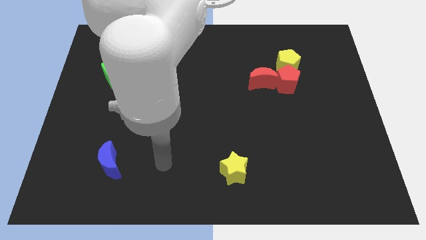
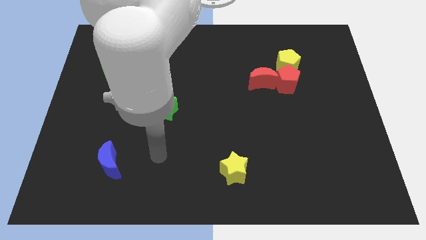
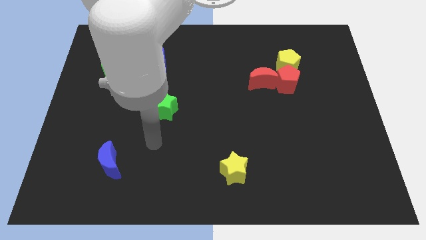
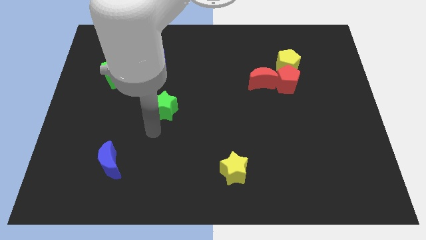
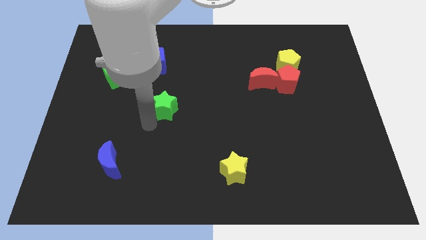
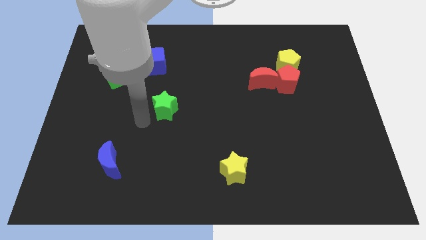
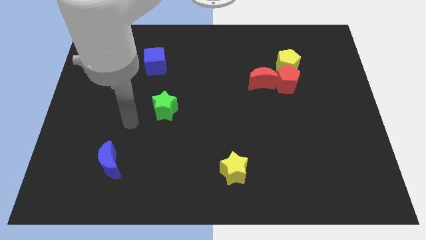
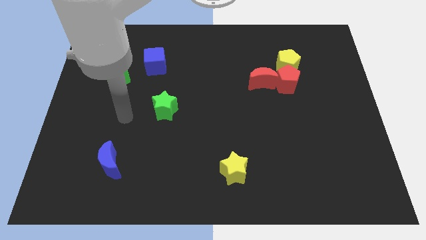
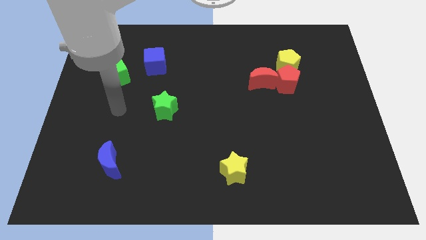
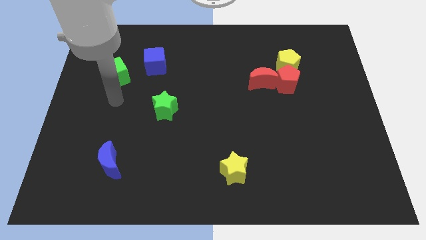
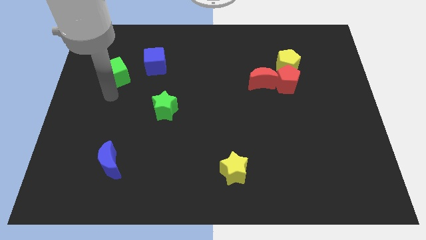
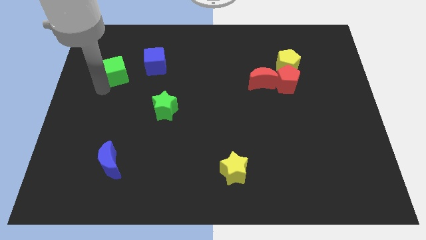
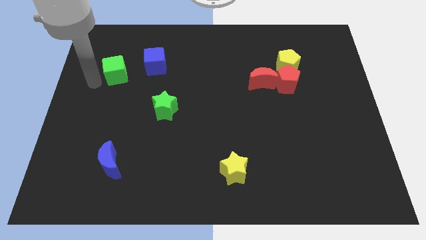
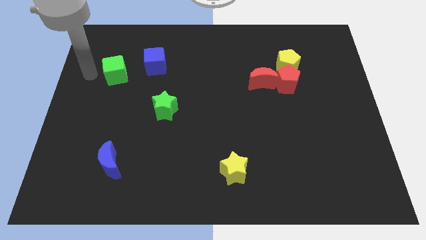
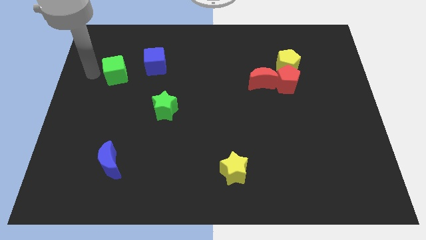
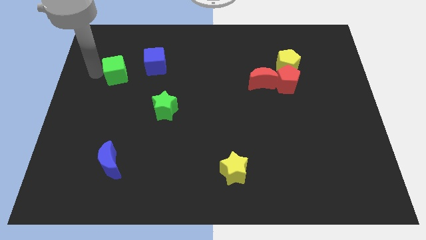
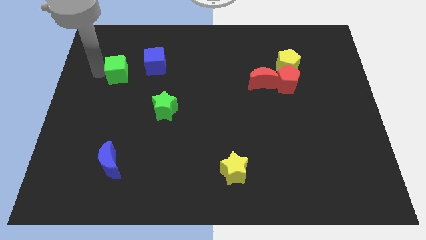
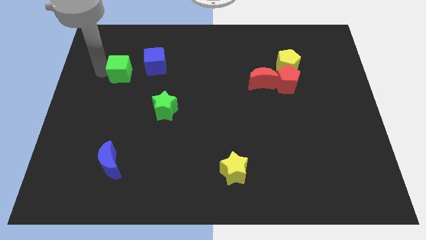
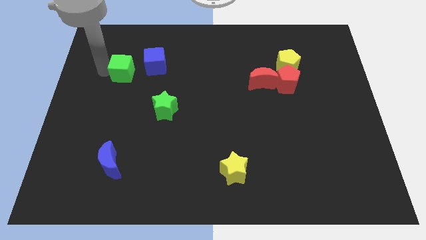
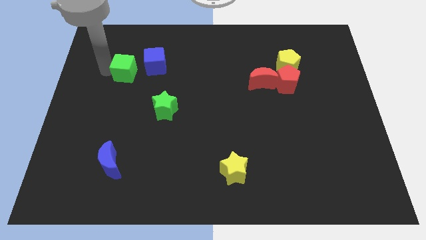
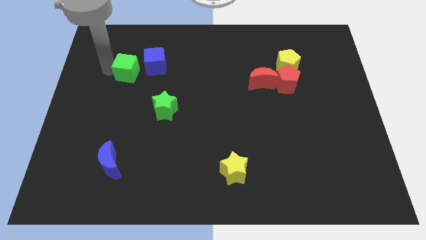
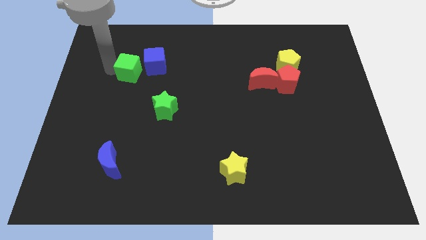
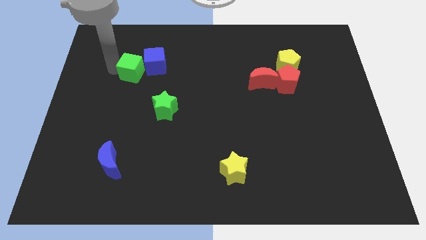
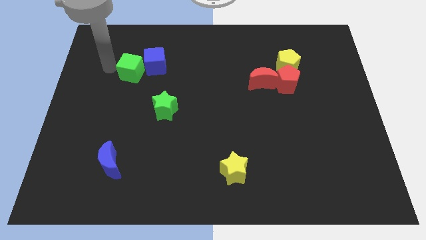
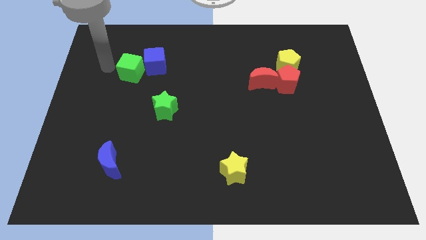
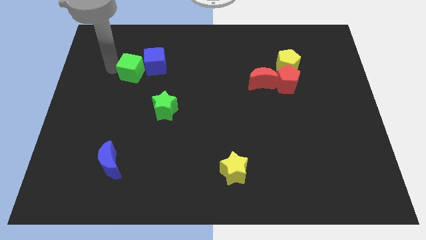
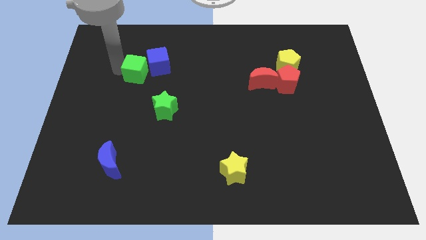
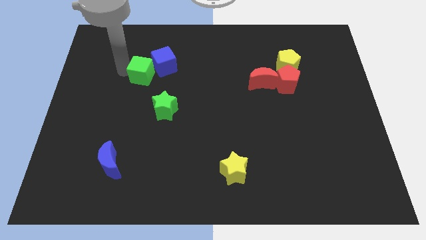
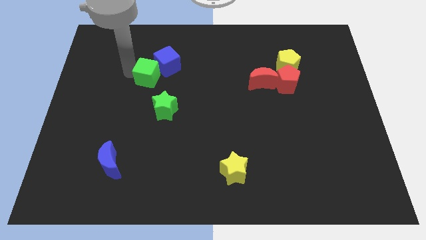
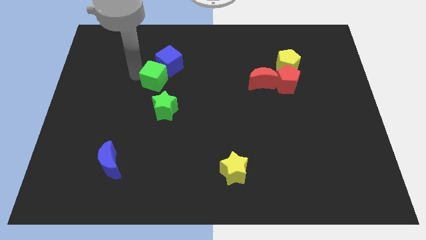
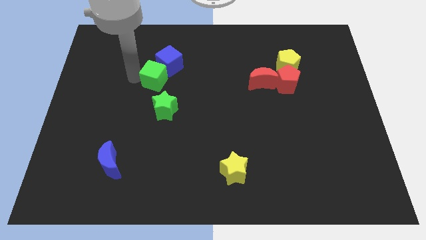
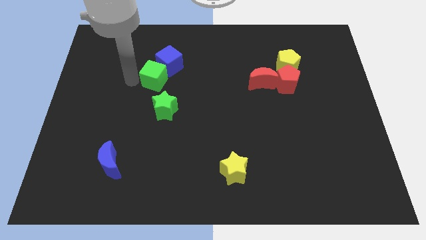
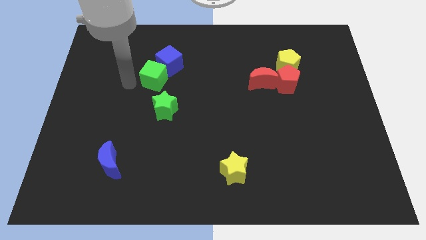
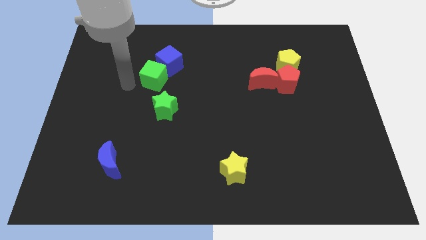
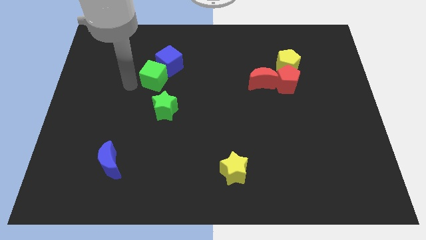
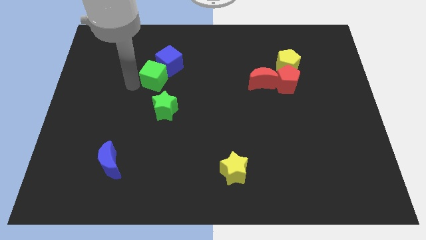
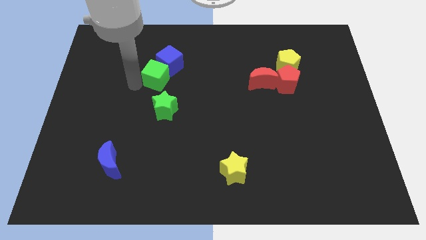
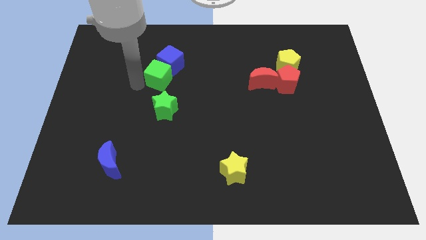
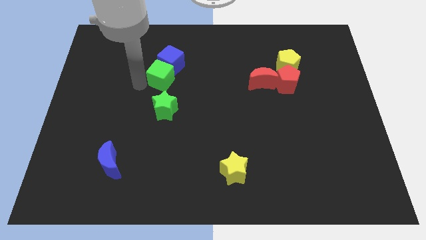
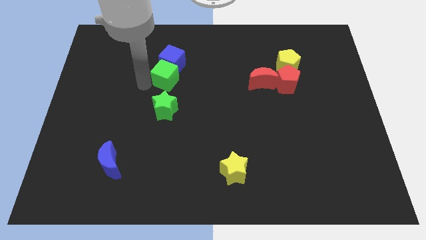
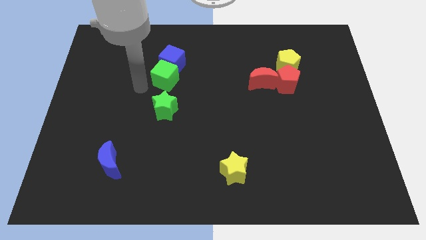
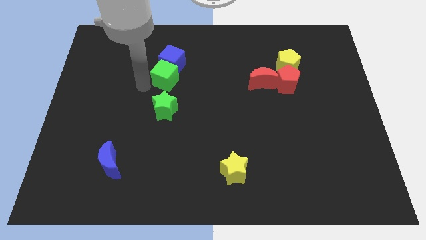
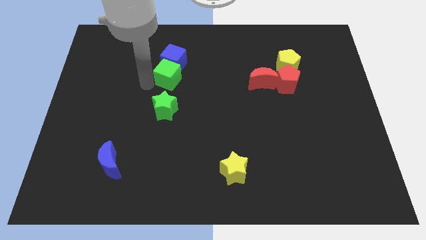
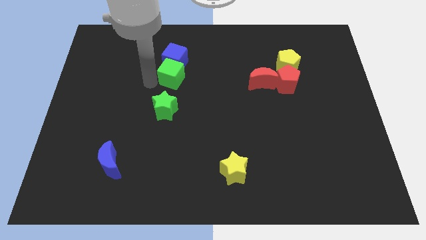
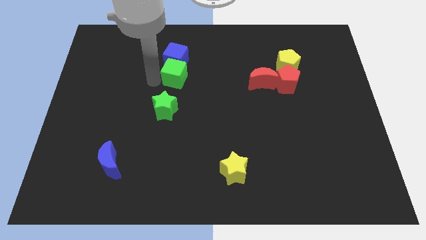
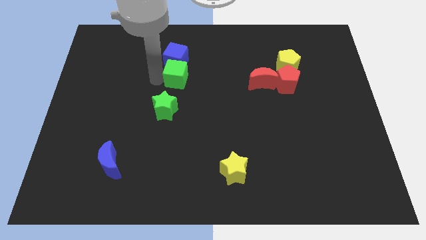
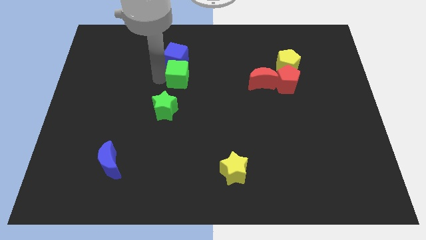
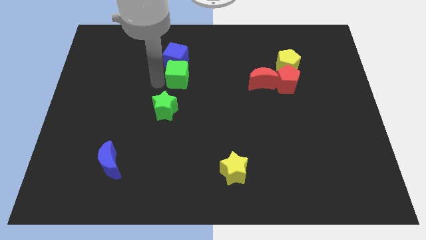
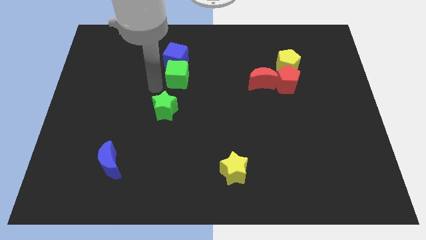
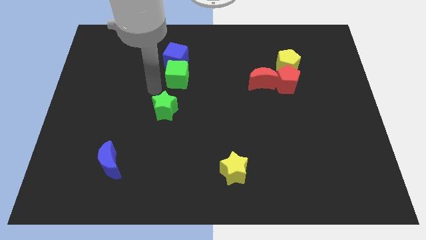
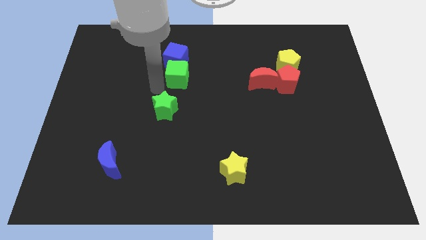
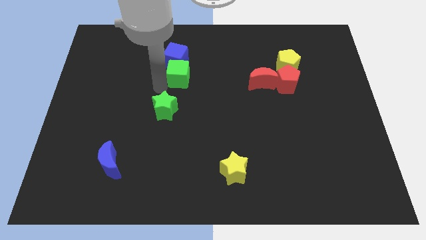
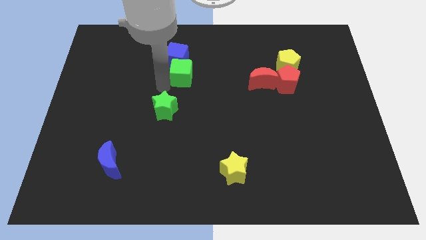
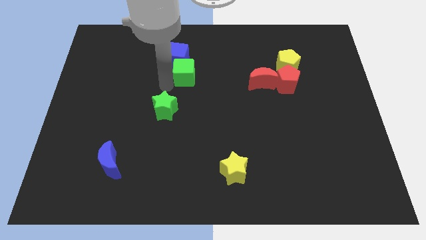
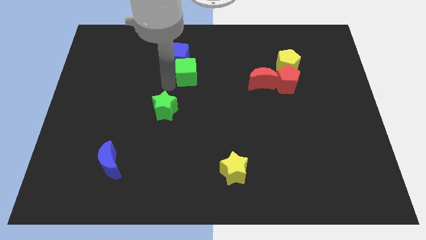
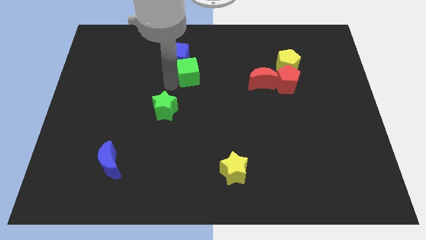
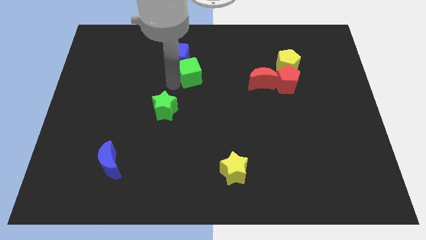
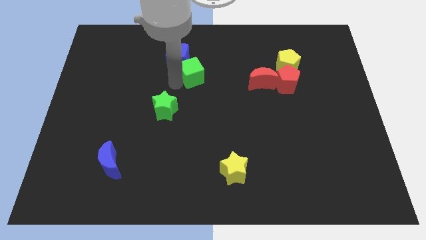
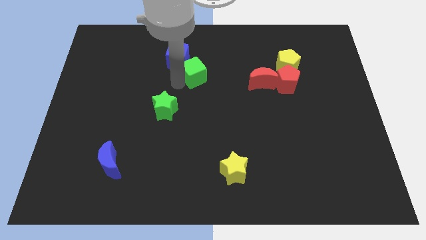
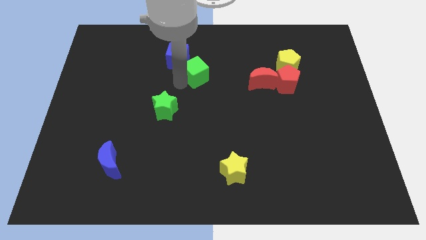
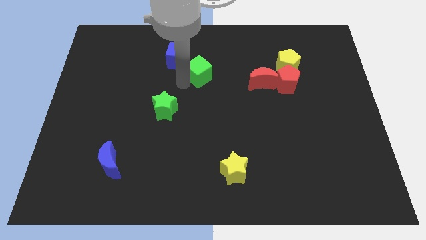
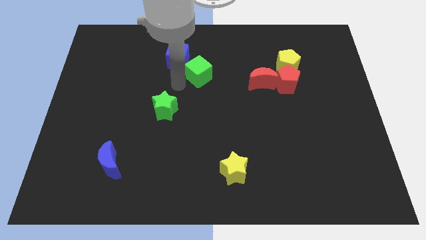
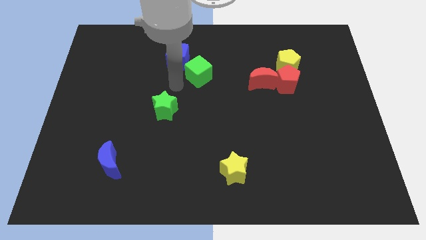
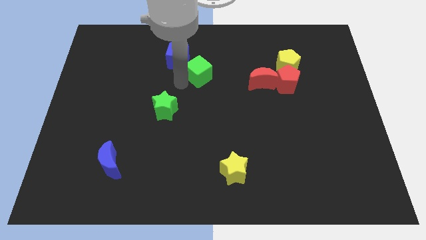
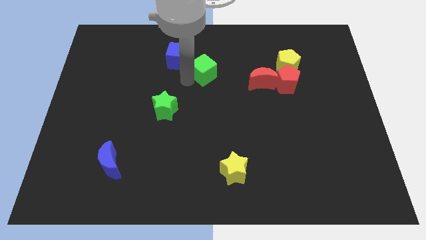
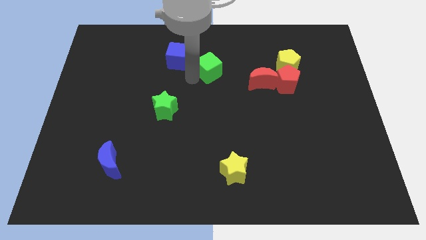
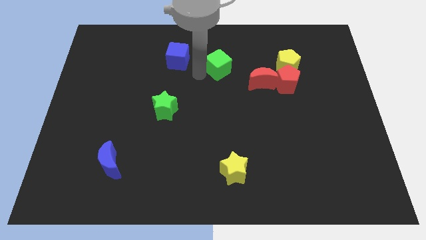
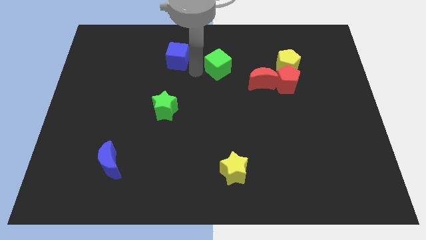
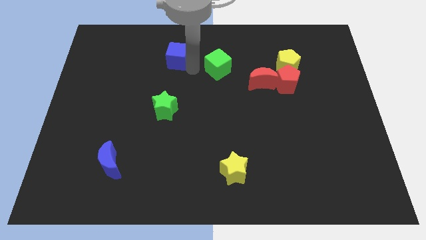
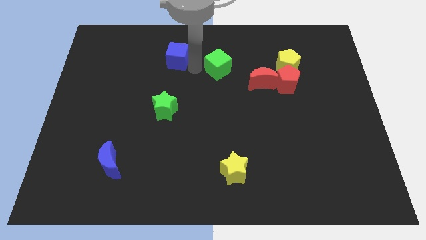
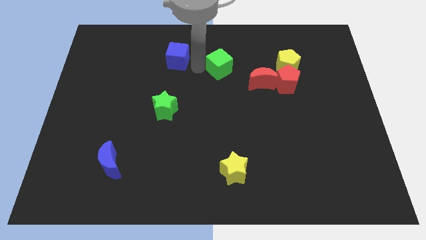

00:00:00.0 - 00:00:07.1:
slide the green cube to the top left side of the red moon
